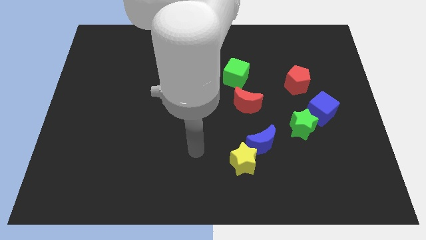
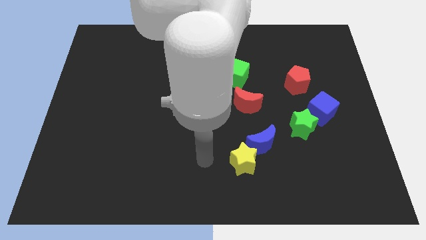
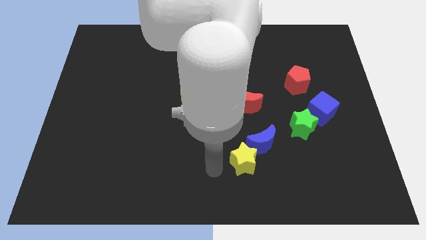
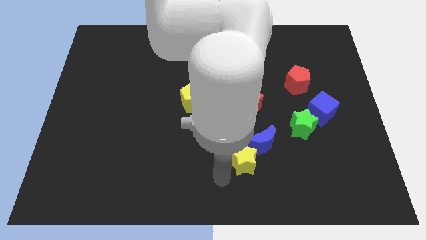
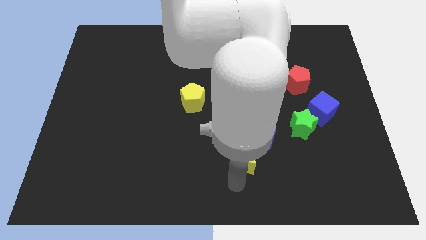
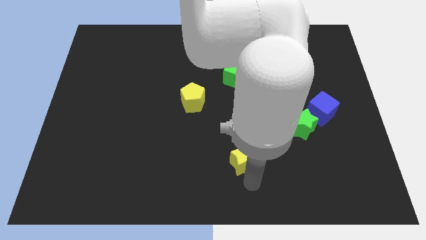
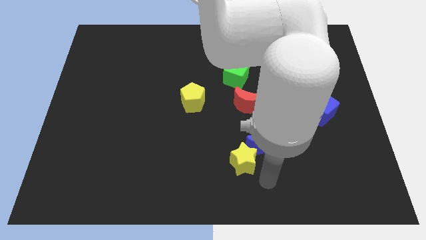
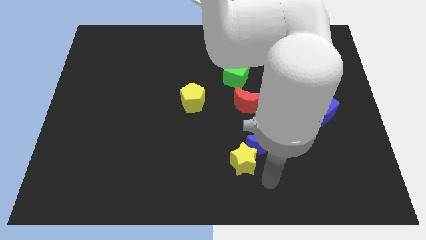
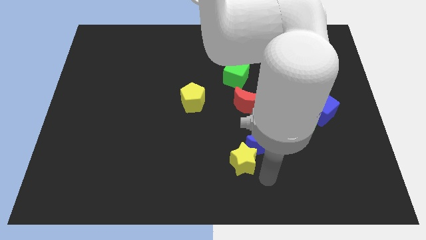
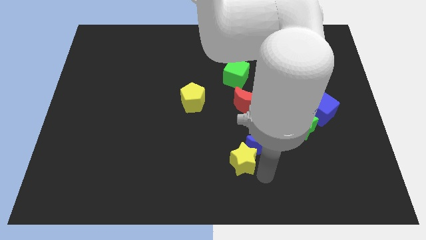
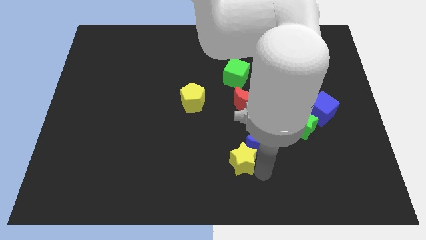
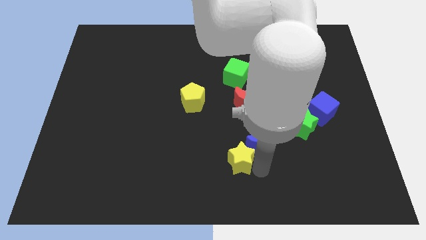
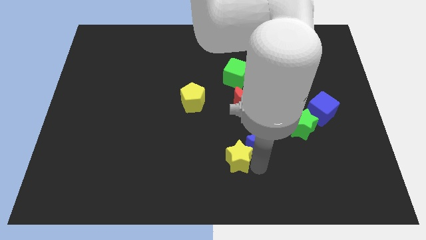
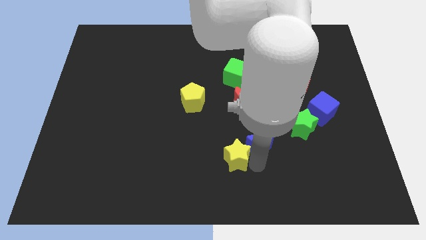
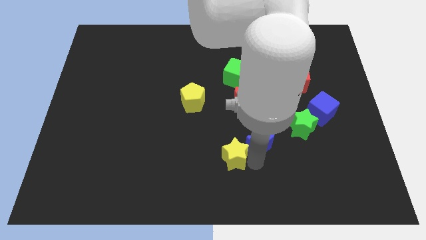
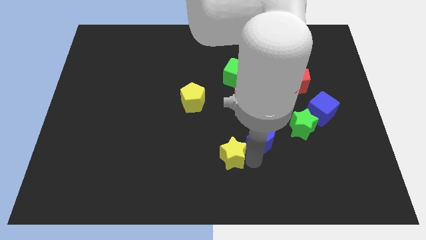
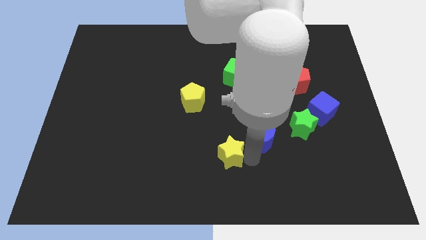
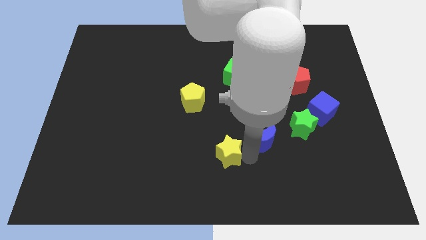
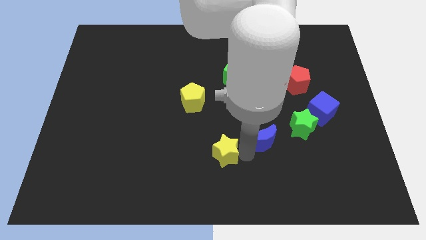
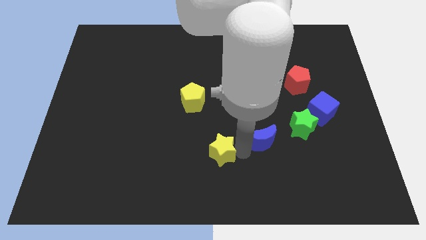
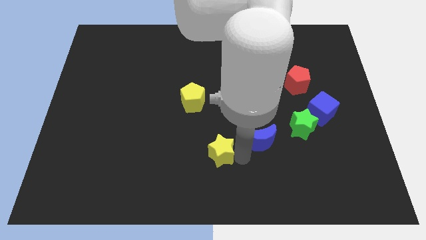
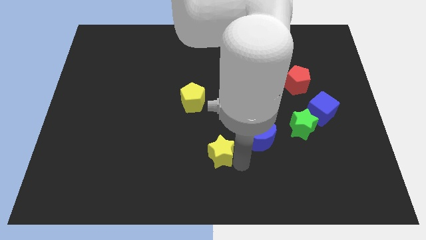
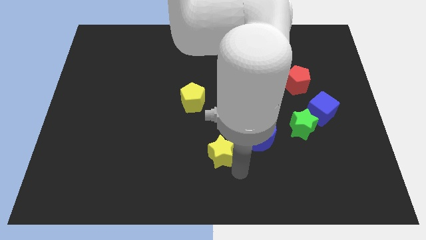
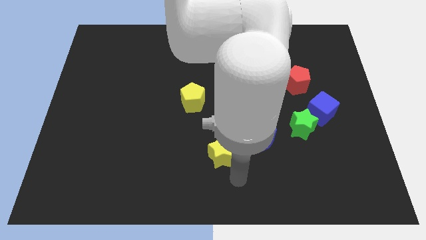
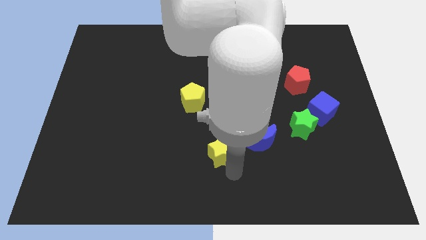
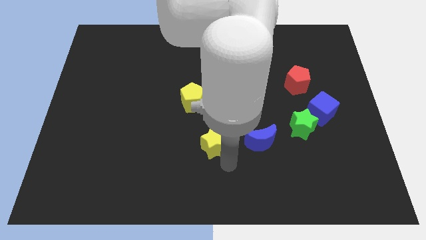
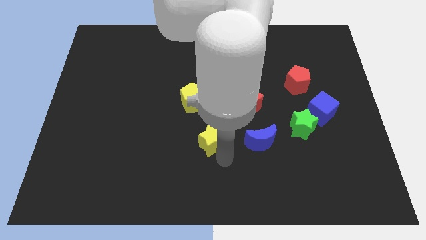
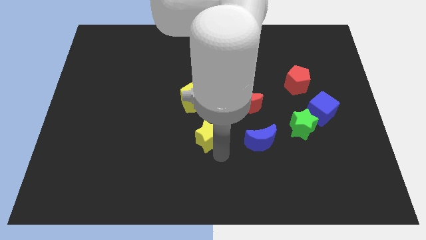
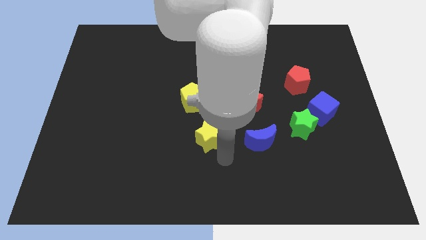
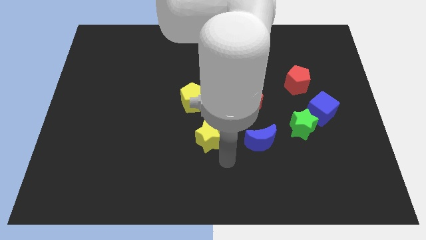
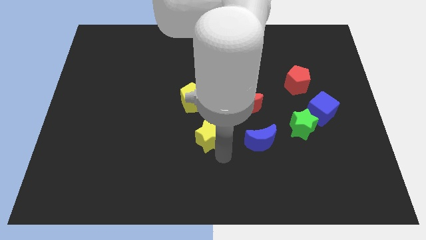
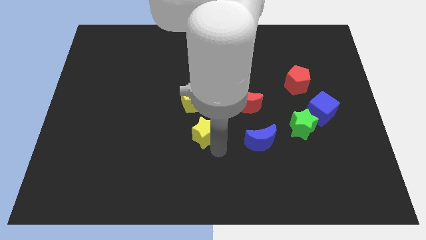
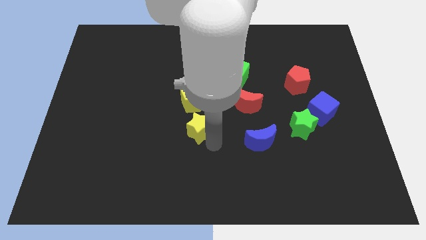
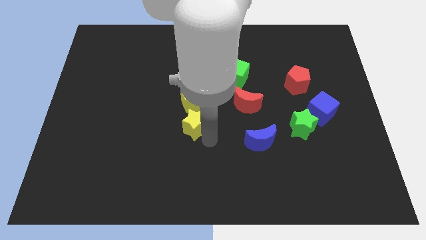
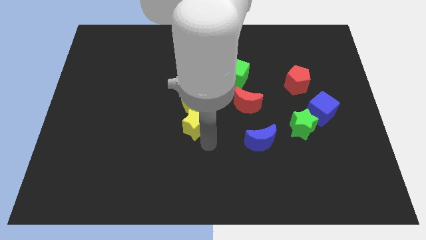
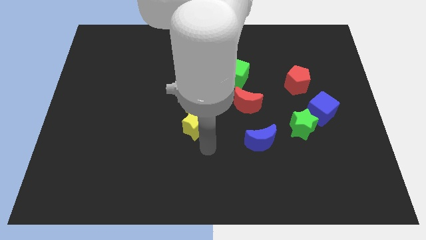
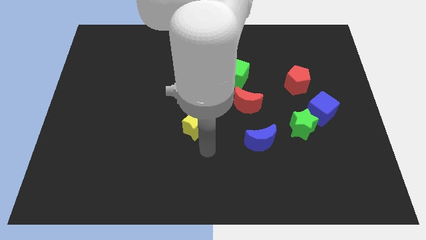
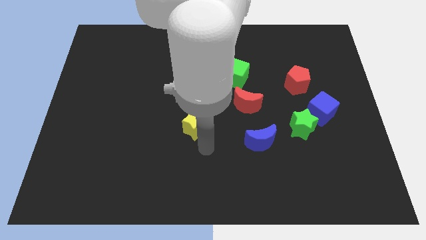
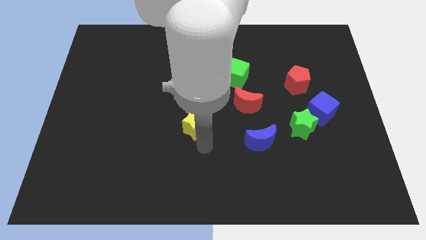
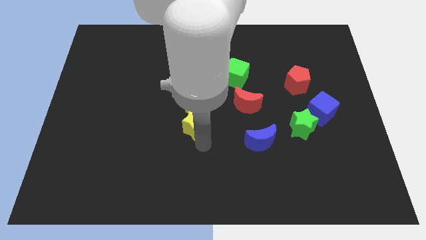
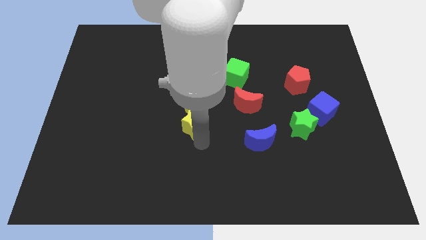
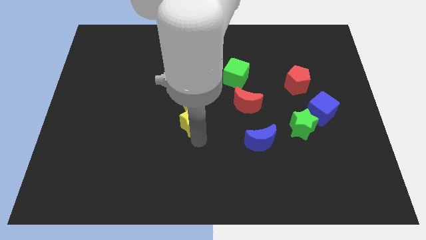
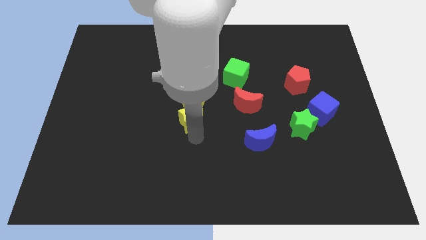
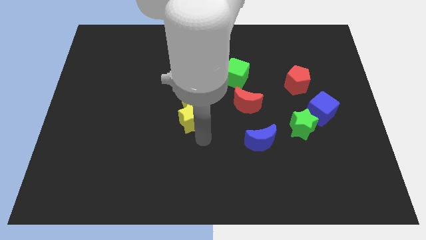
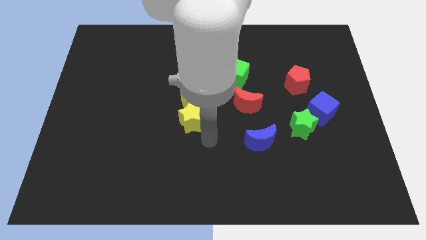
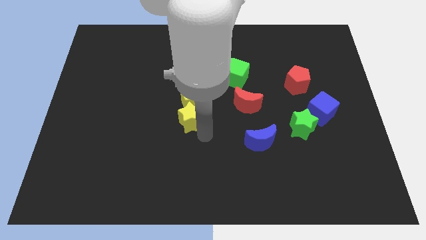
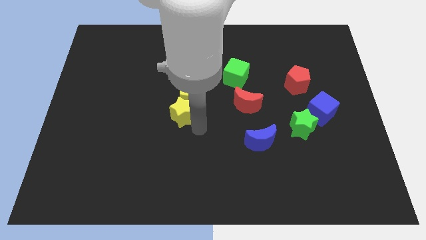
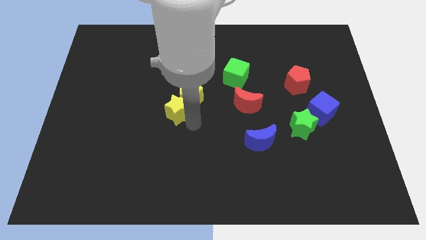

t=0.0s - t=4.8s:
push the yellow star diagonally up and left

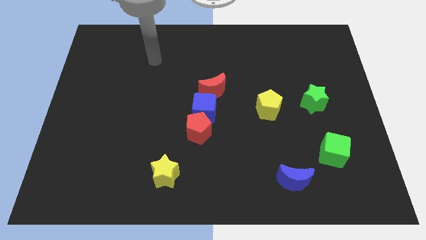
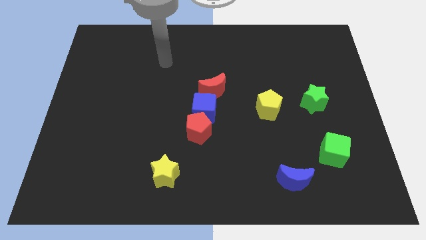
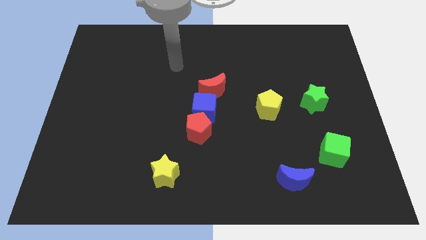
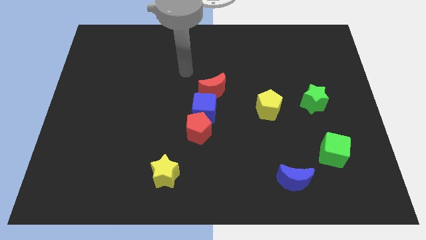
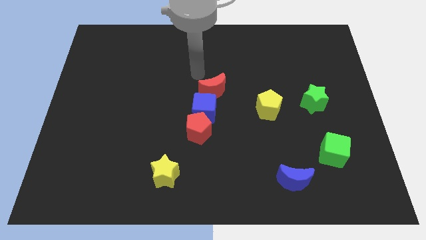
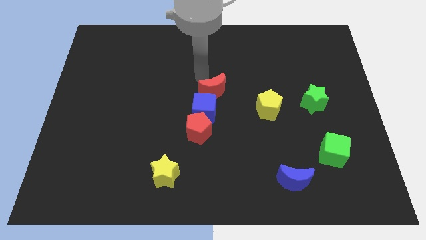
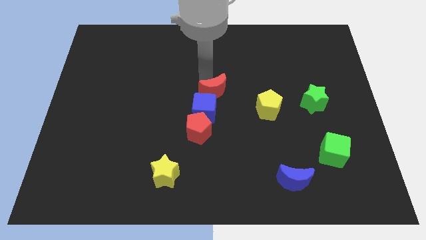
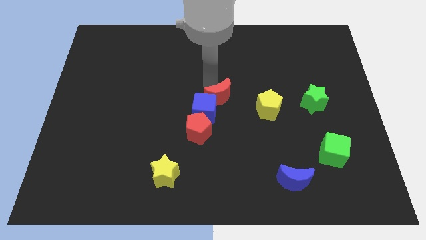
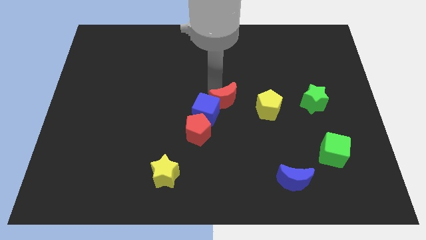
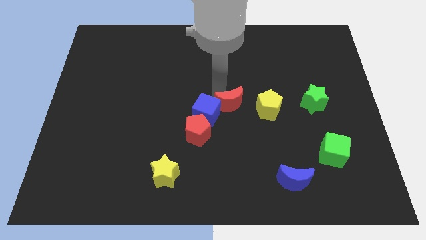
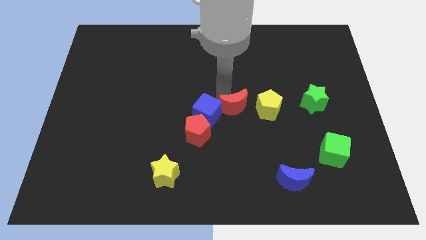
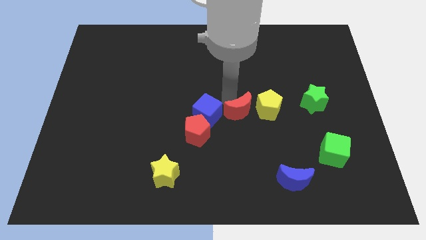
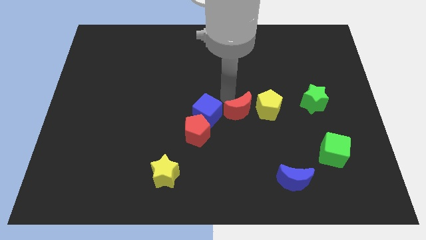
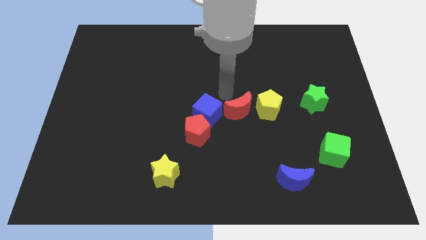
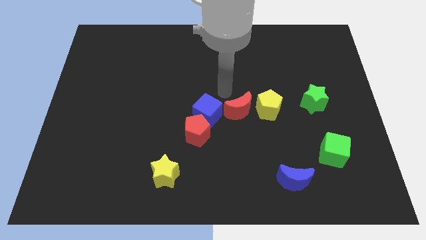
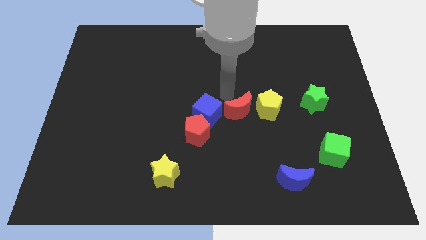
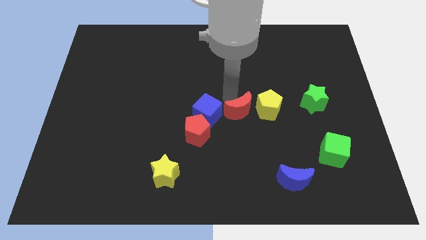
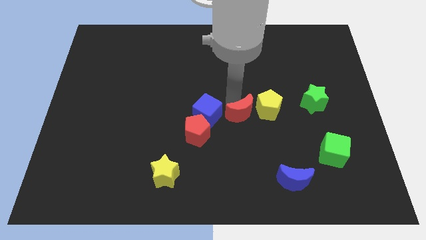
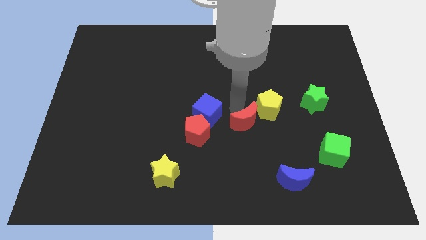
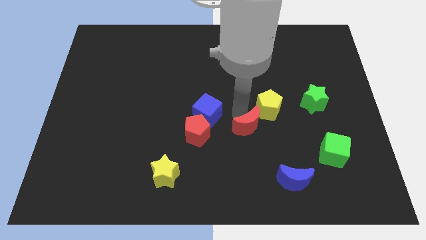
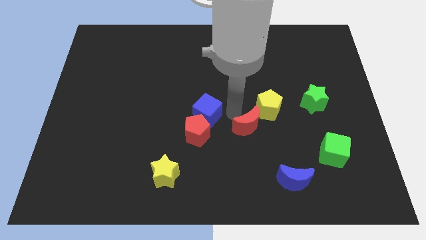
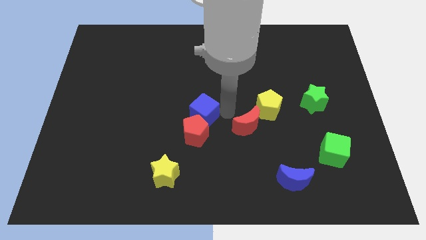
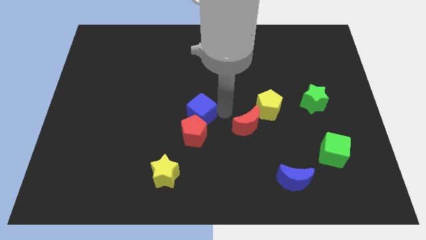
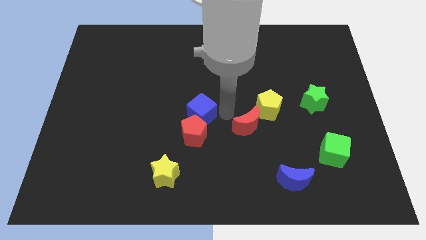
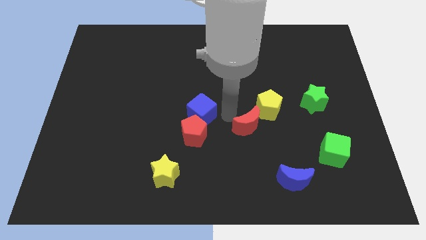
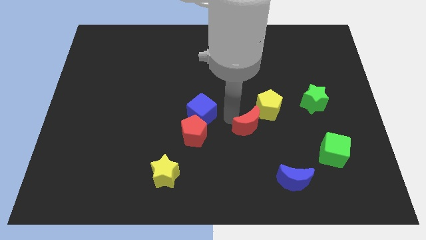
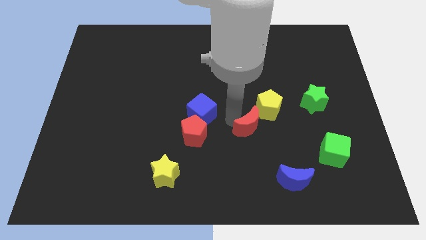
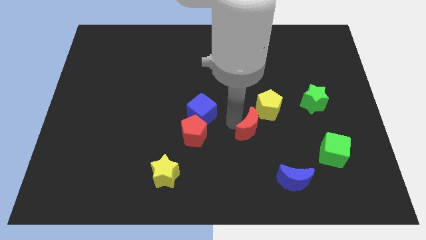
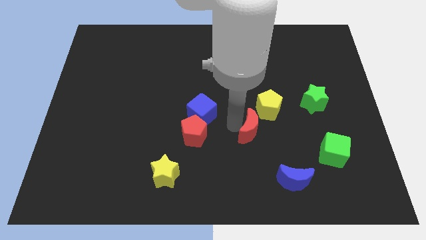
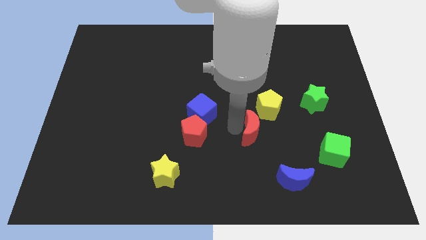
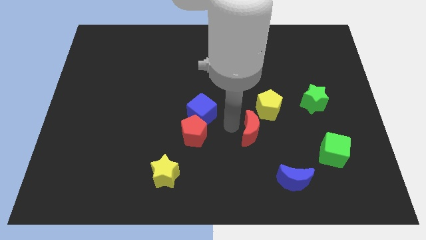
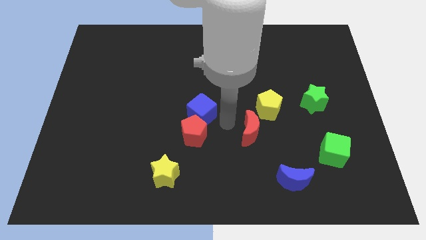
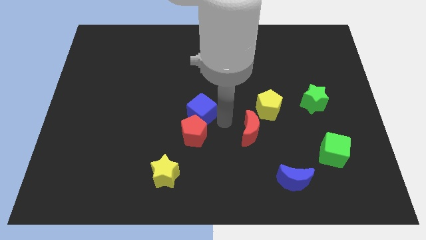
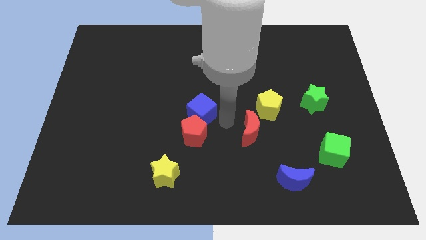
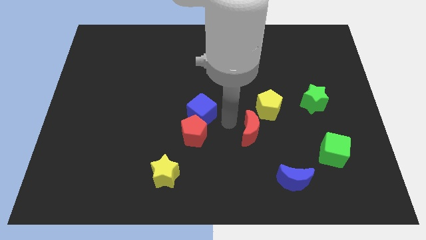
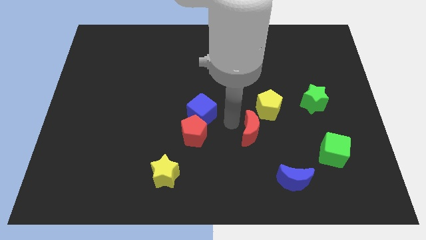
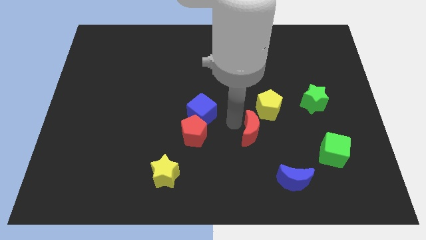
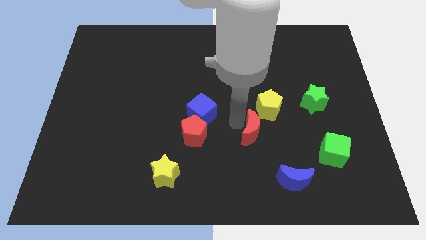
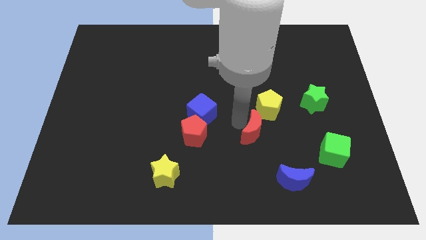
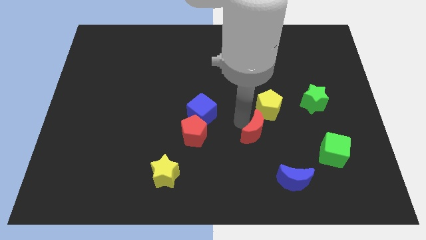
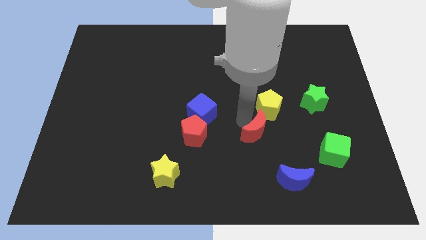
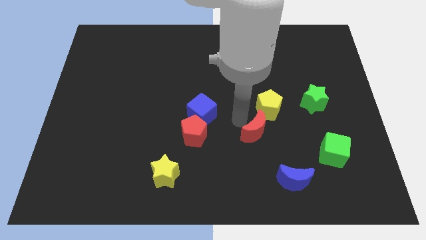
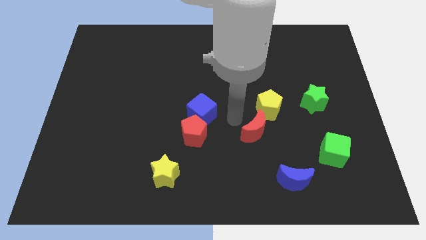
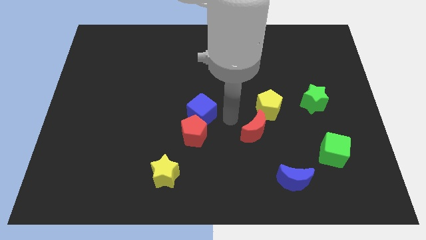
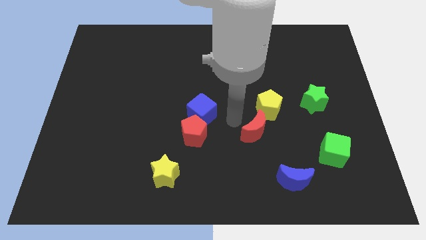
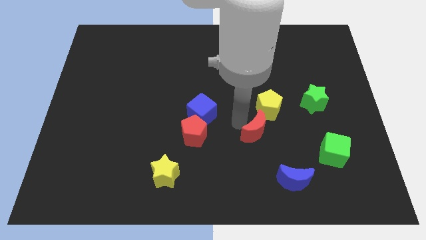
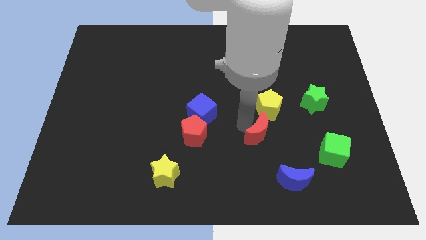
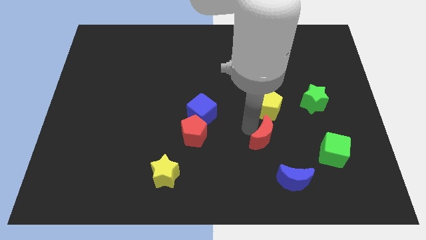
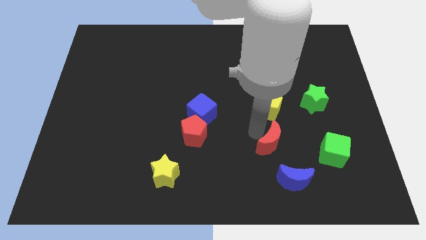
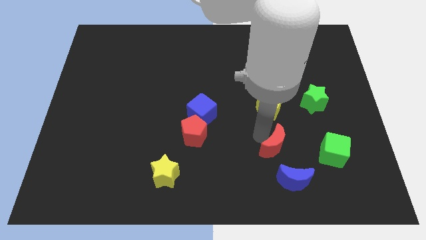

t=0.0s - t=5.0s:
move the red moon down and to the right diagonally
